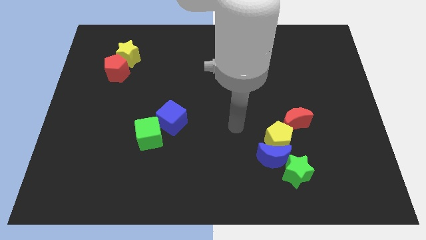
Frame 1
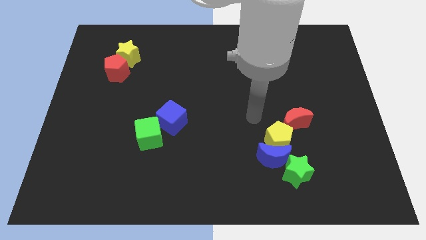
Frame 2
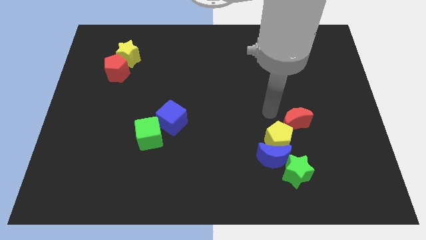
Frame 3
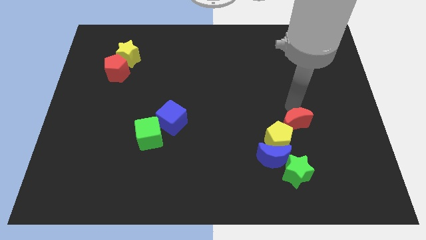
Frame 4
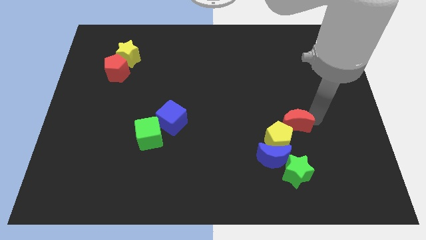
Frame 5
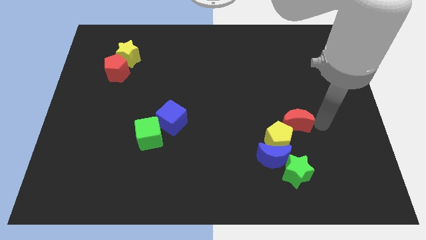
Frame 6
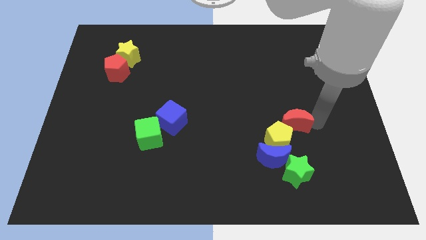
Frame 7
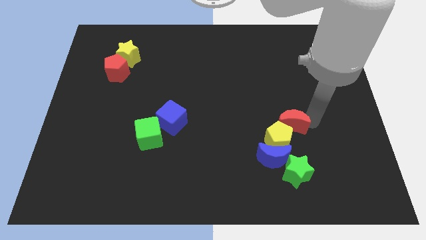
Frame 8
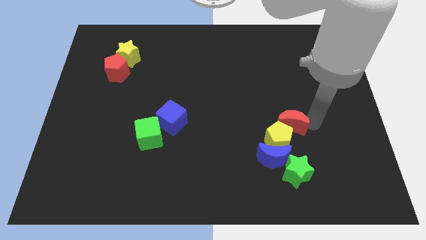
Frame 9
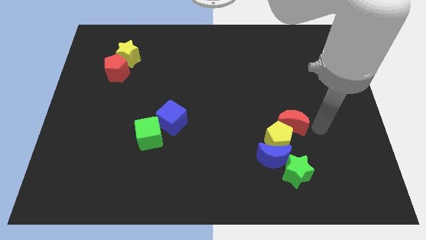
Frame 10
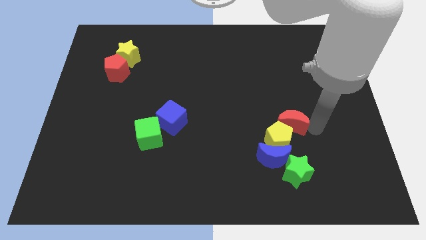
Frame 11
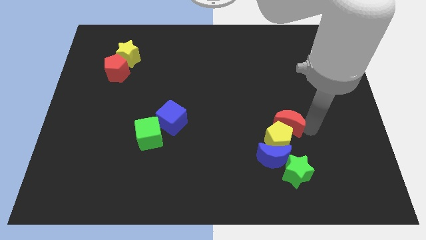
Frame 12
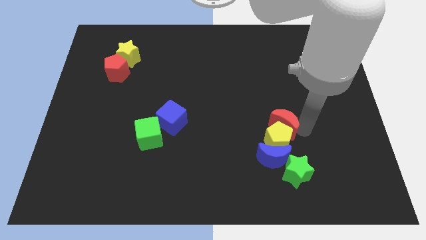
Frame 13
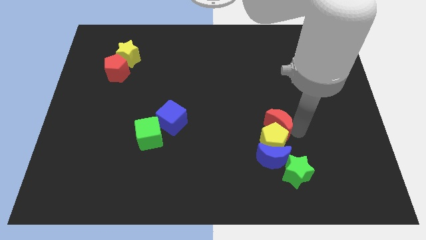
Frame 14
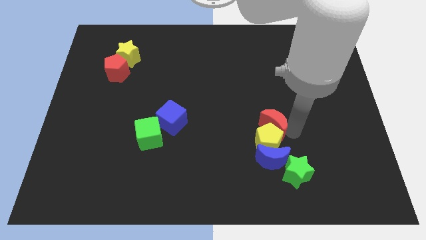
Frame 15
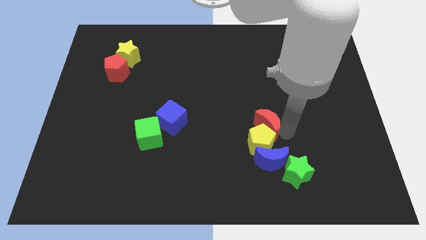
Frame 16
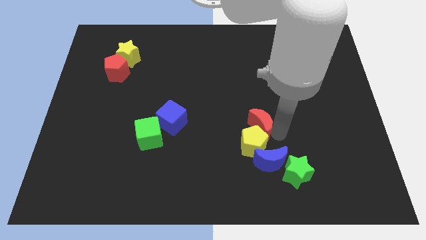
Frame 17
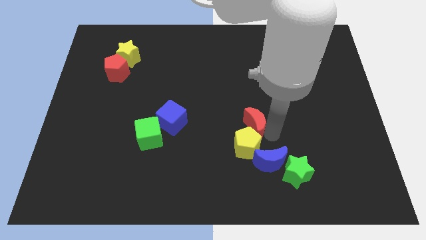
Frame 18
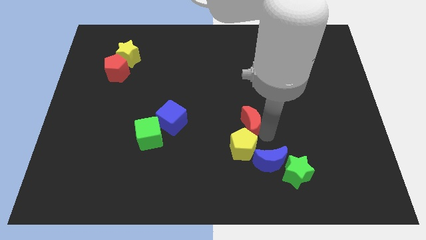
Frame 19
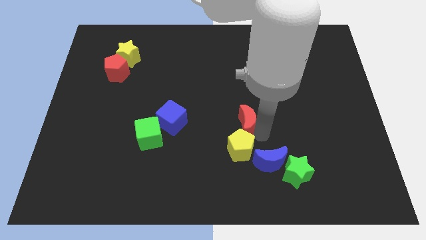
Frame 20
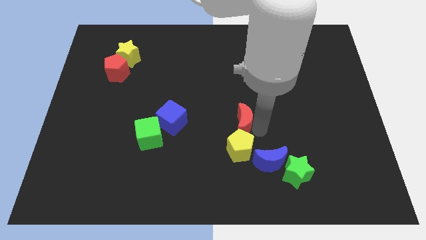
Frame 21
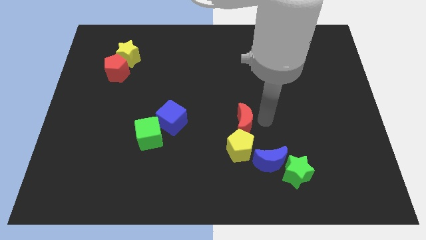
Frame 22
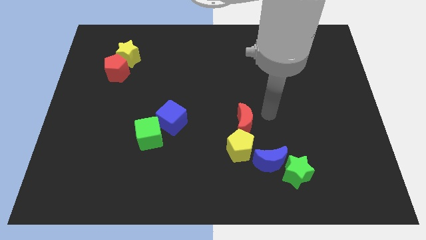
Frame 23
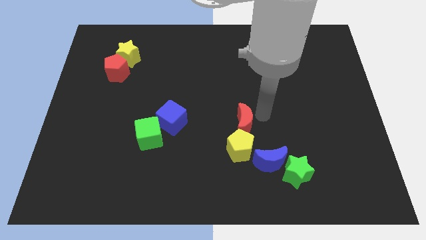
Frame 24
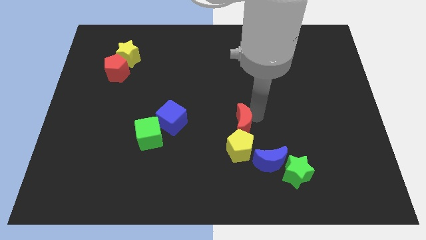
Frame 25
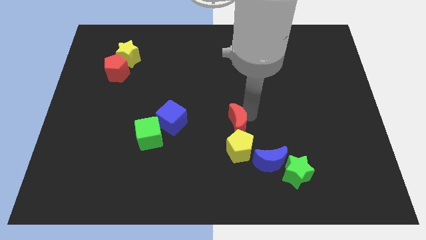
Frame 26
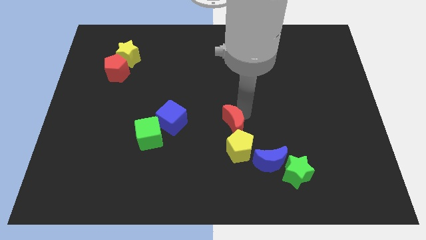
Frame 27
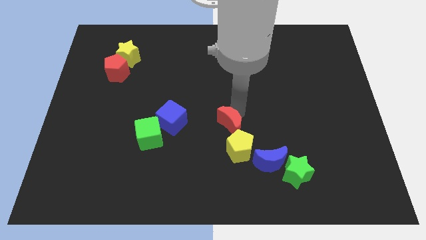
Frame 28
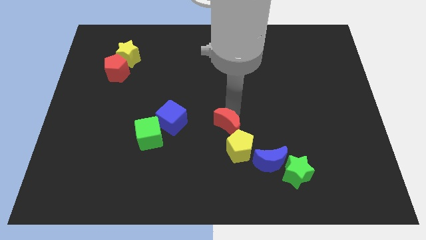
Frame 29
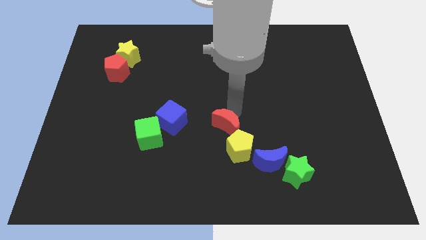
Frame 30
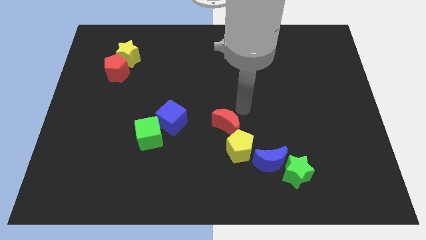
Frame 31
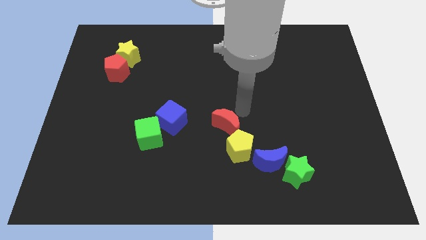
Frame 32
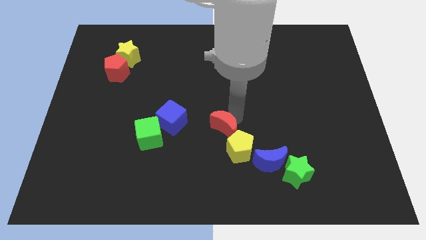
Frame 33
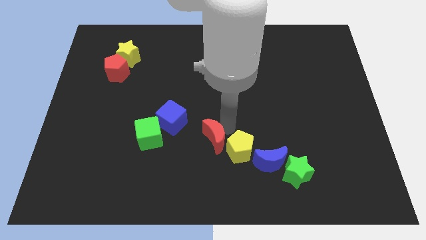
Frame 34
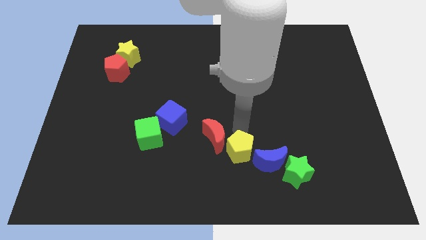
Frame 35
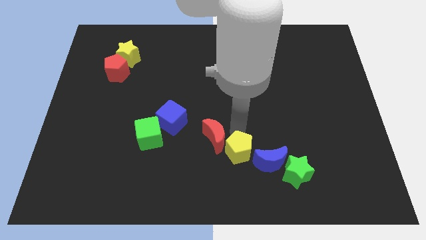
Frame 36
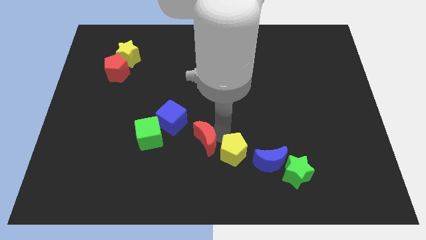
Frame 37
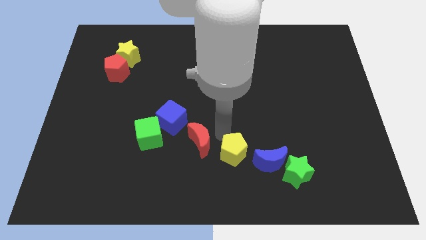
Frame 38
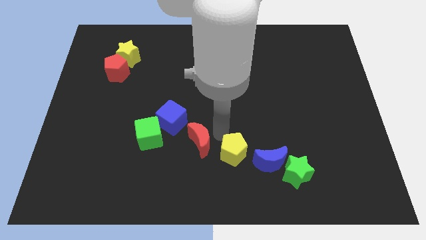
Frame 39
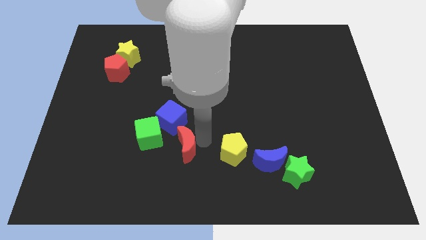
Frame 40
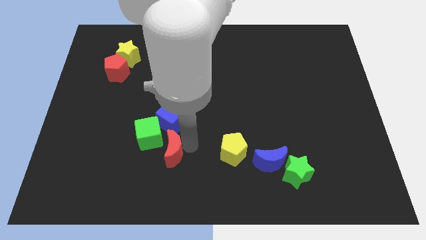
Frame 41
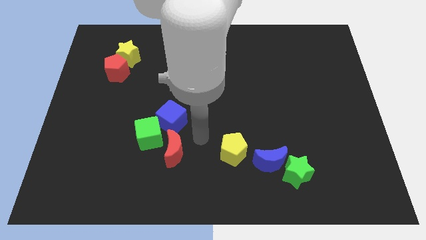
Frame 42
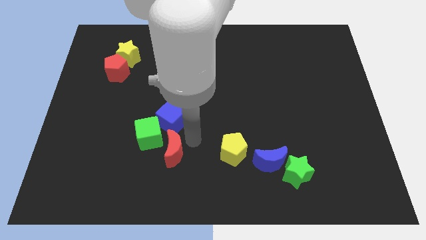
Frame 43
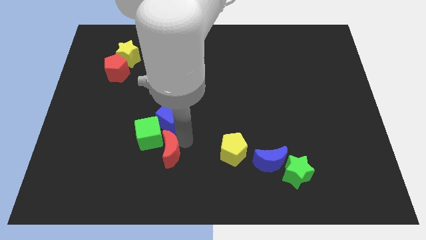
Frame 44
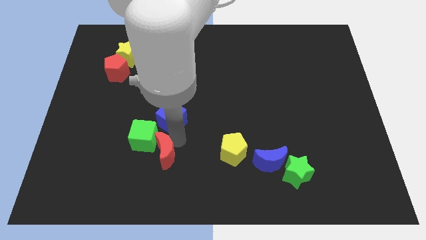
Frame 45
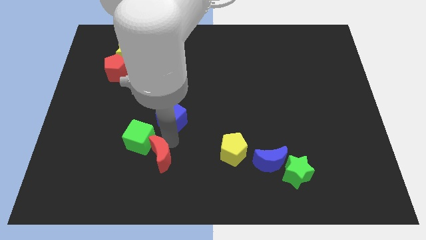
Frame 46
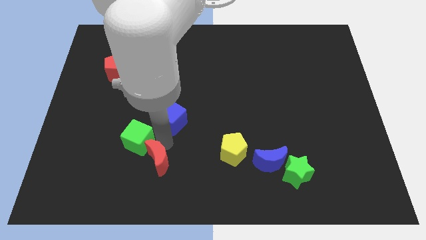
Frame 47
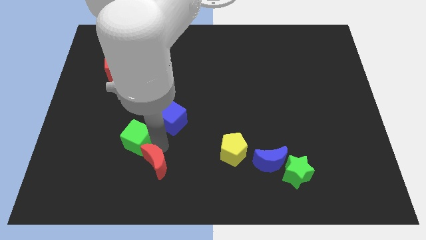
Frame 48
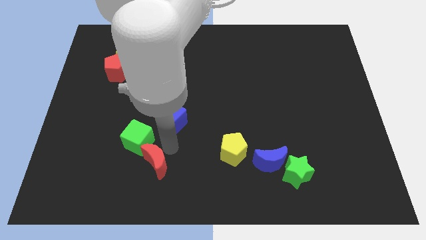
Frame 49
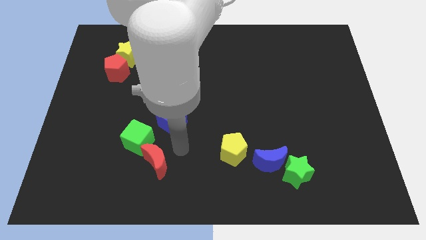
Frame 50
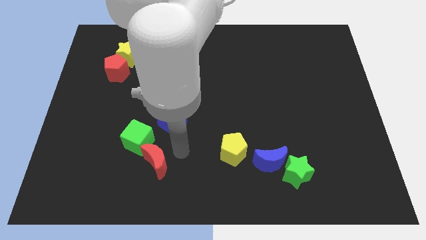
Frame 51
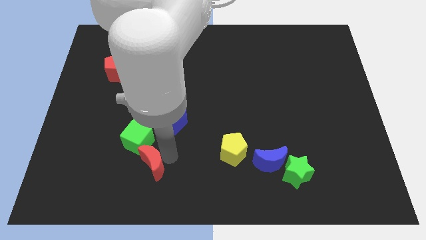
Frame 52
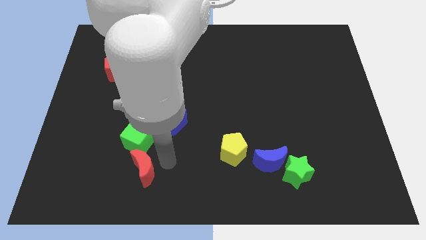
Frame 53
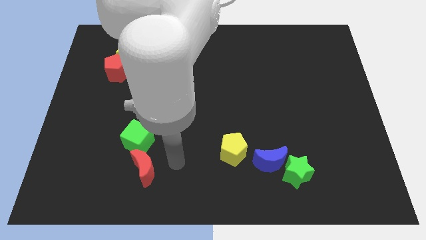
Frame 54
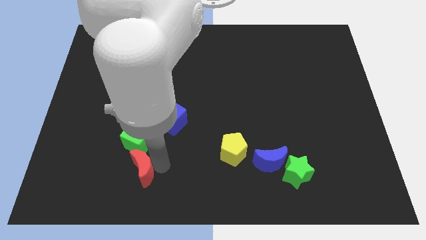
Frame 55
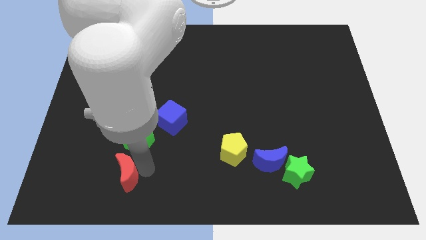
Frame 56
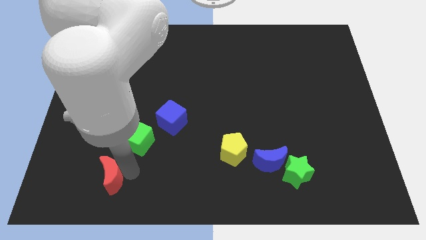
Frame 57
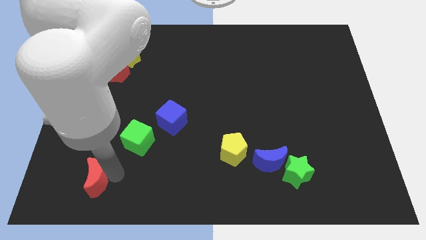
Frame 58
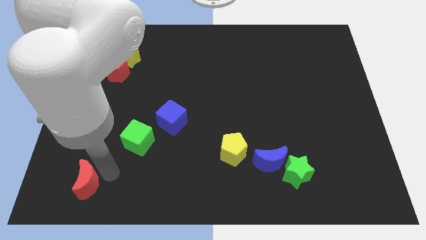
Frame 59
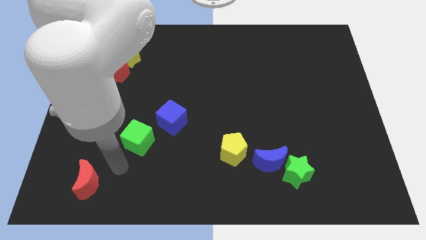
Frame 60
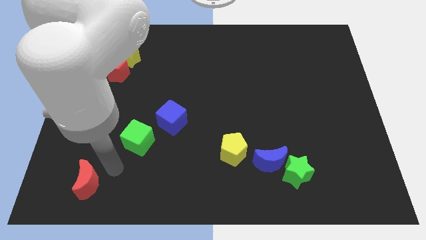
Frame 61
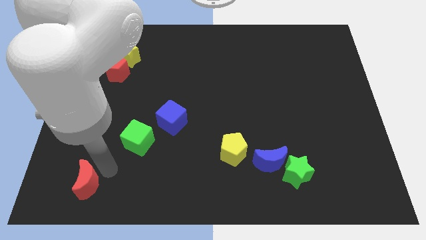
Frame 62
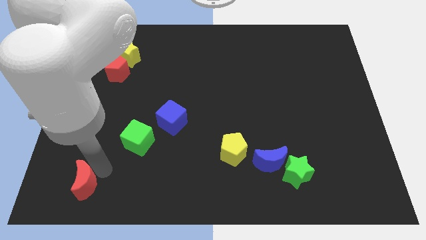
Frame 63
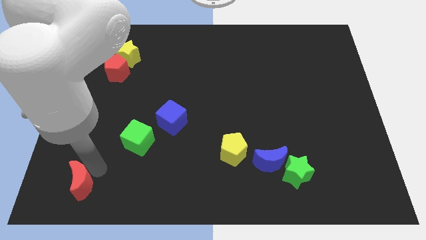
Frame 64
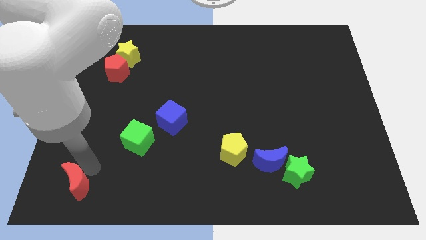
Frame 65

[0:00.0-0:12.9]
put the red moon to the lower left corner
